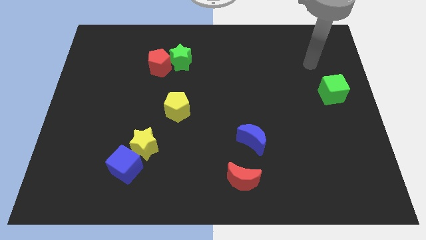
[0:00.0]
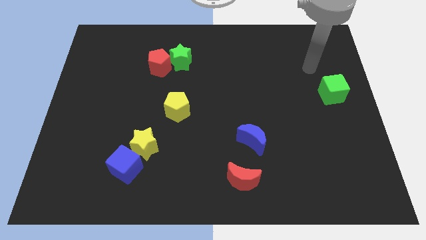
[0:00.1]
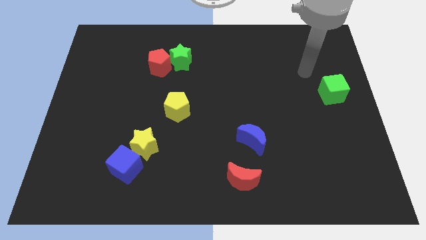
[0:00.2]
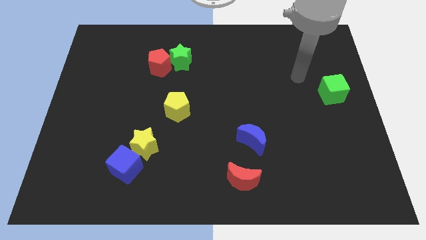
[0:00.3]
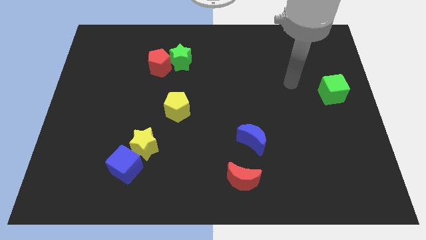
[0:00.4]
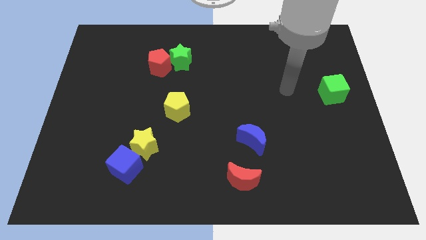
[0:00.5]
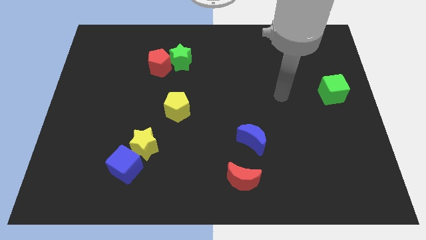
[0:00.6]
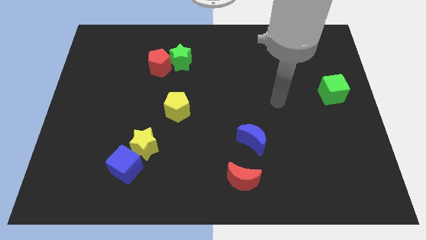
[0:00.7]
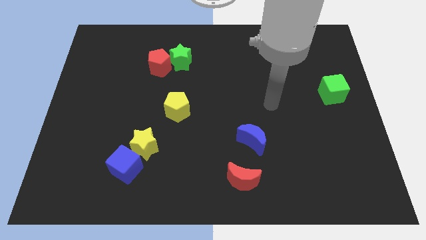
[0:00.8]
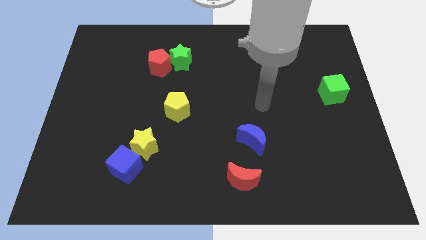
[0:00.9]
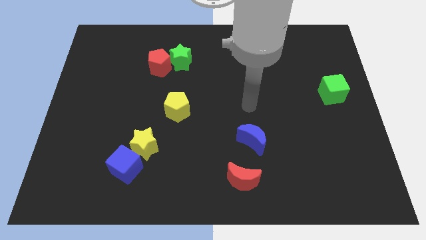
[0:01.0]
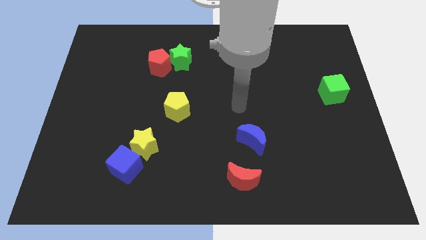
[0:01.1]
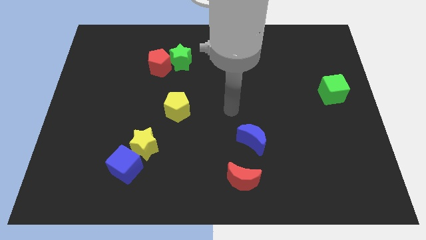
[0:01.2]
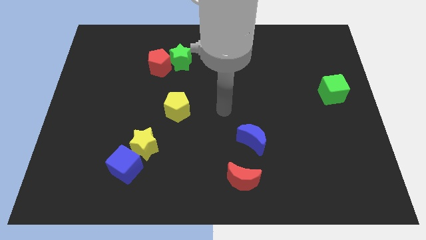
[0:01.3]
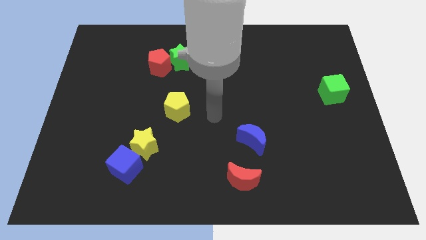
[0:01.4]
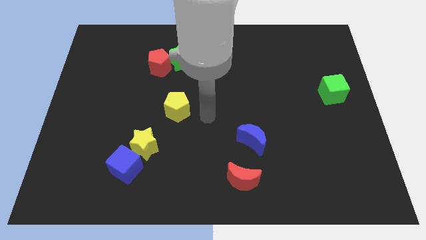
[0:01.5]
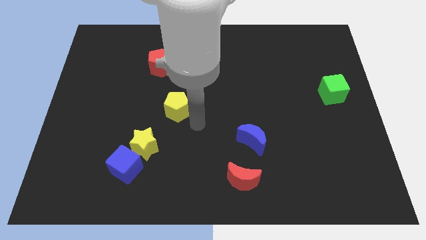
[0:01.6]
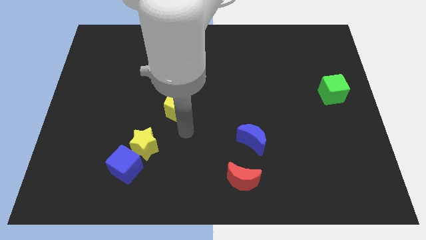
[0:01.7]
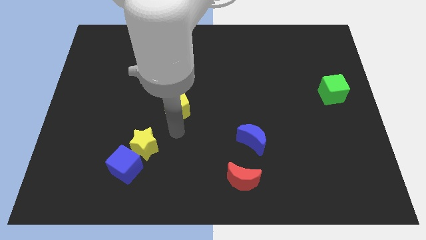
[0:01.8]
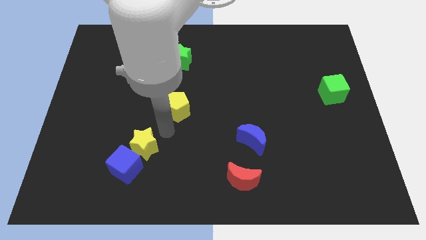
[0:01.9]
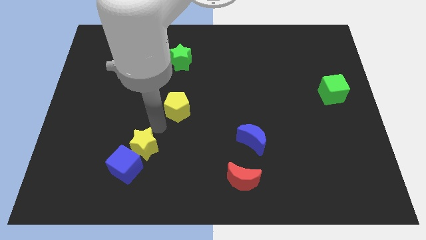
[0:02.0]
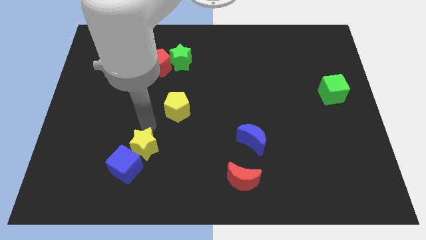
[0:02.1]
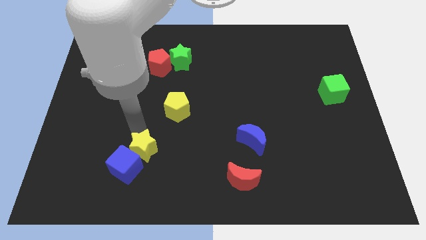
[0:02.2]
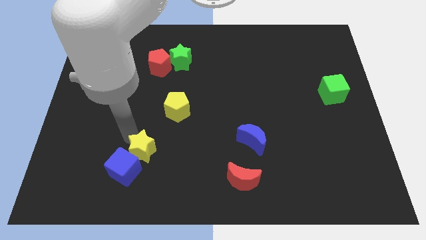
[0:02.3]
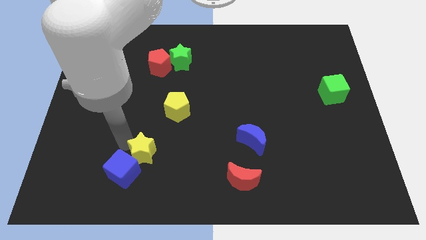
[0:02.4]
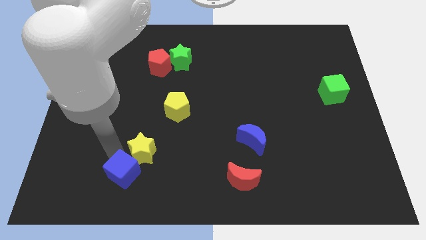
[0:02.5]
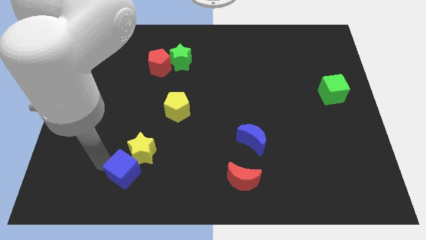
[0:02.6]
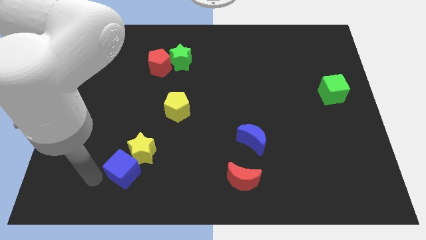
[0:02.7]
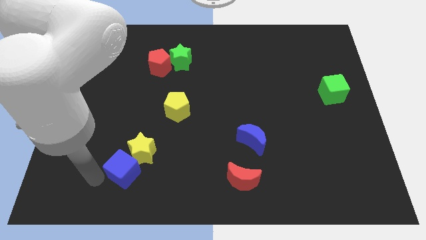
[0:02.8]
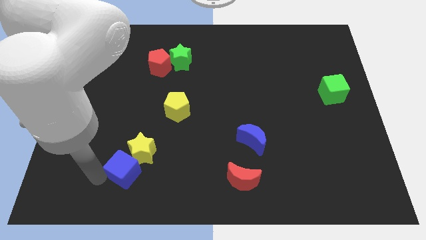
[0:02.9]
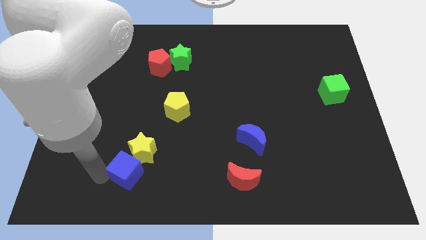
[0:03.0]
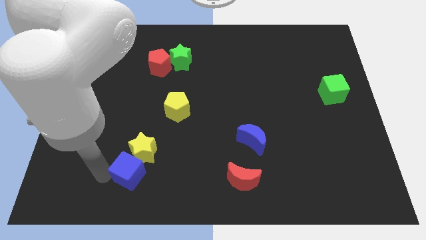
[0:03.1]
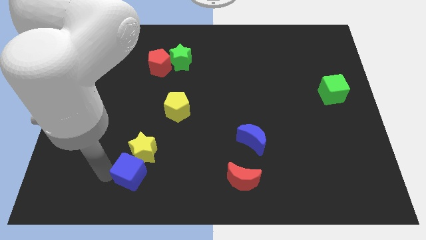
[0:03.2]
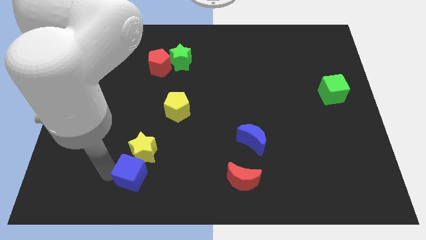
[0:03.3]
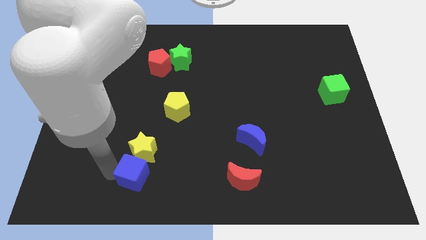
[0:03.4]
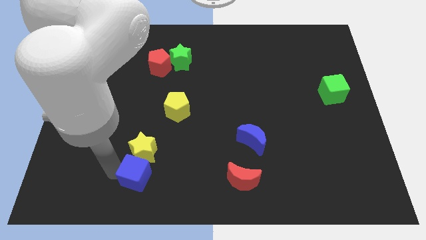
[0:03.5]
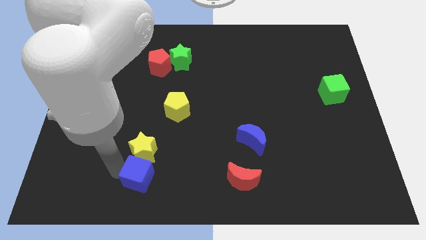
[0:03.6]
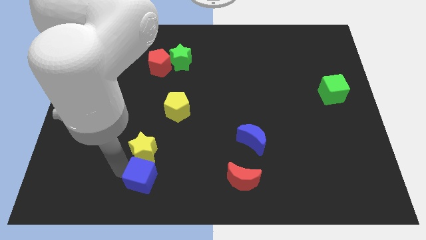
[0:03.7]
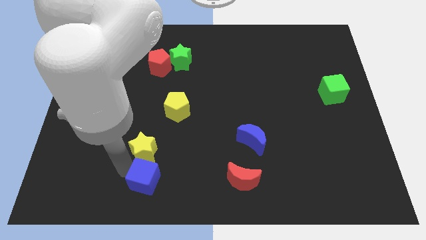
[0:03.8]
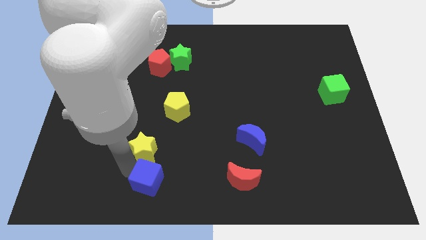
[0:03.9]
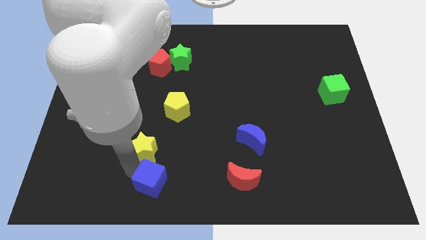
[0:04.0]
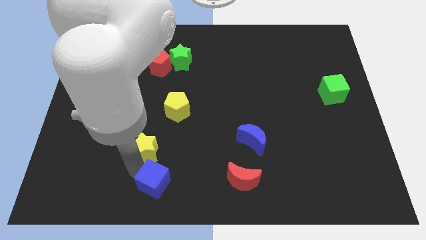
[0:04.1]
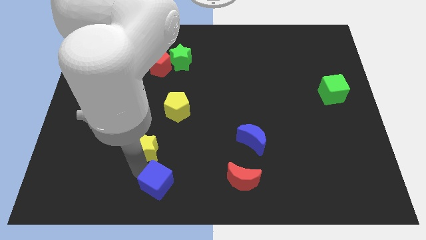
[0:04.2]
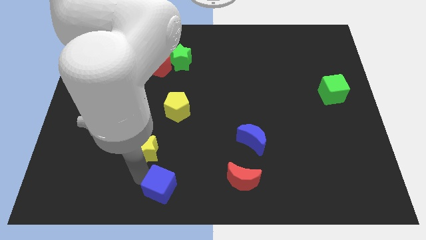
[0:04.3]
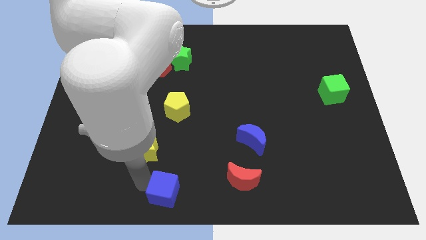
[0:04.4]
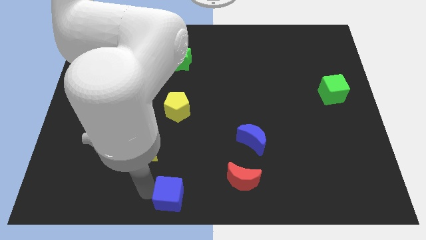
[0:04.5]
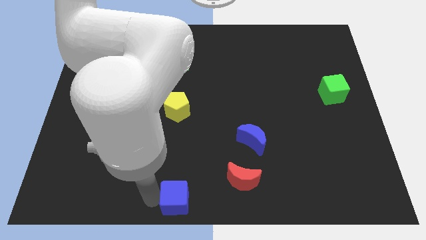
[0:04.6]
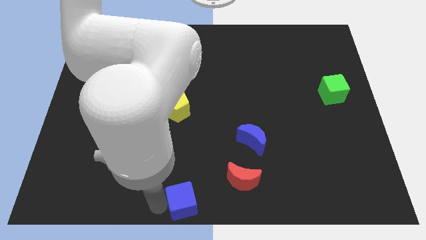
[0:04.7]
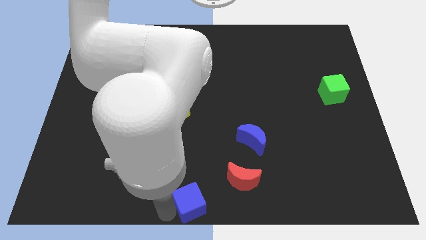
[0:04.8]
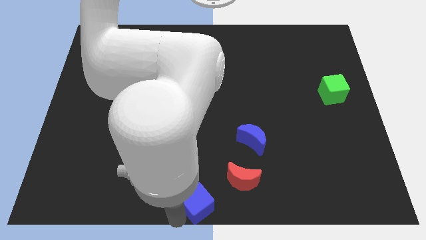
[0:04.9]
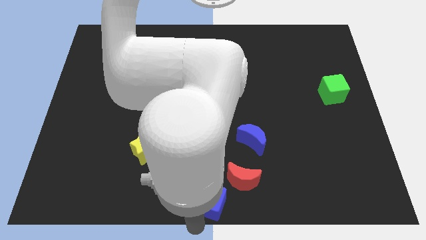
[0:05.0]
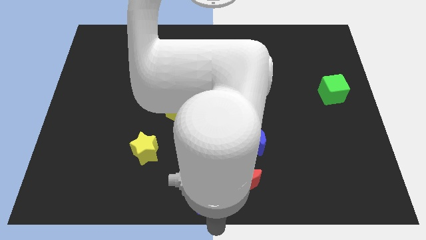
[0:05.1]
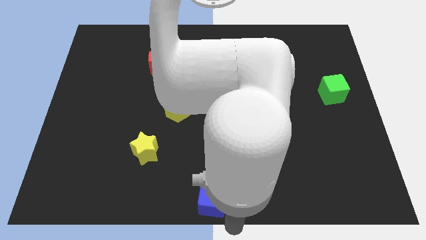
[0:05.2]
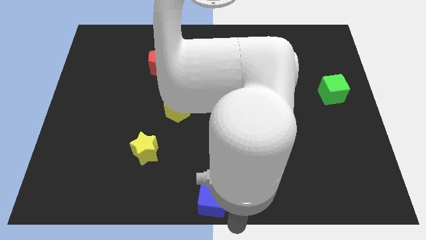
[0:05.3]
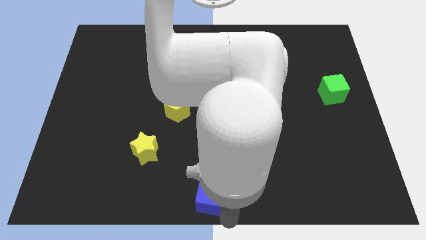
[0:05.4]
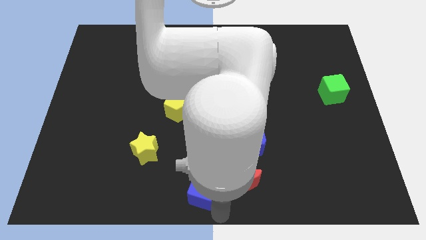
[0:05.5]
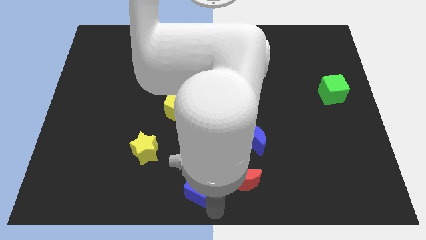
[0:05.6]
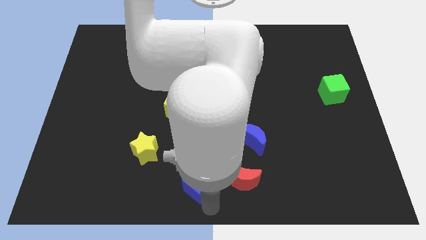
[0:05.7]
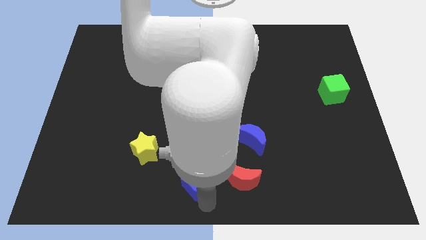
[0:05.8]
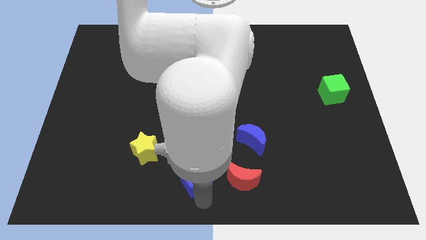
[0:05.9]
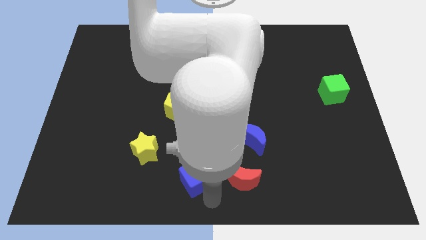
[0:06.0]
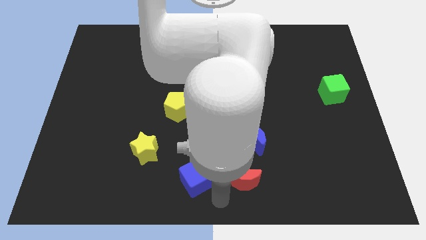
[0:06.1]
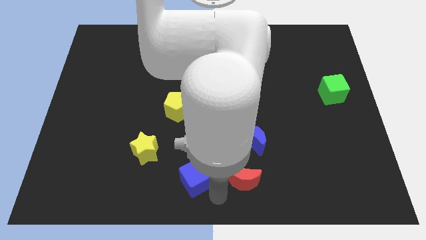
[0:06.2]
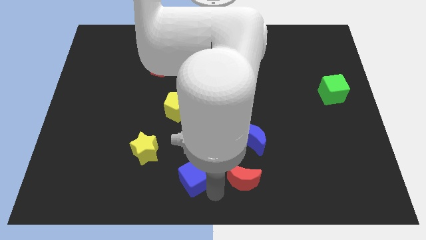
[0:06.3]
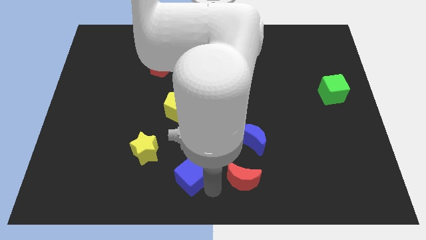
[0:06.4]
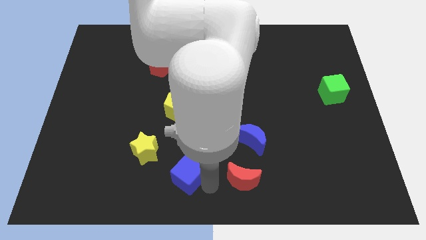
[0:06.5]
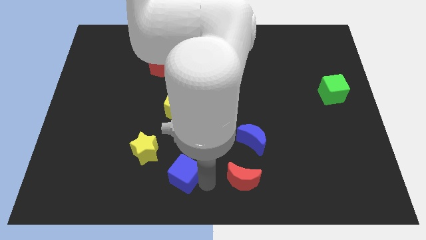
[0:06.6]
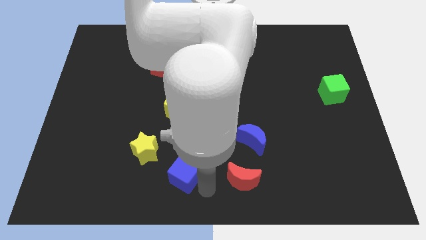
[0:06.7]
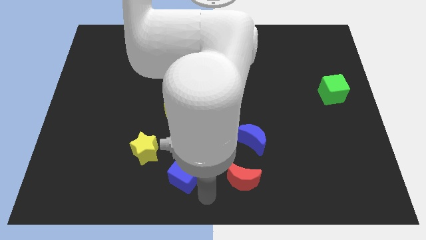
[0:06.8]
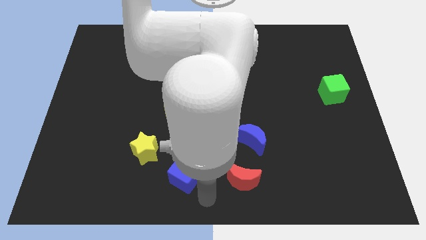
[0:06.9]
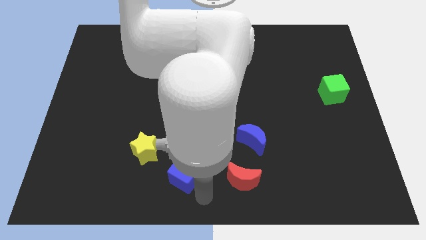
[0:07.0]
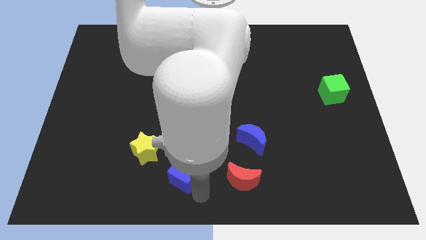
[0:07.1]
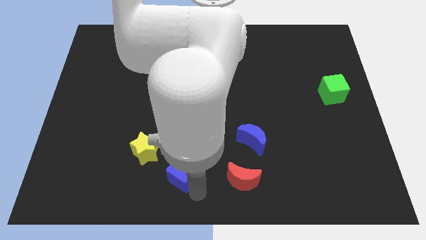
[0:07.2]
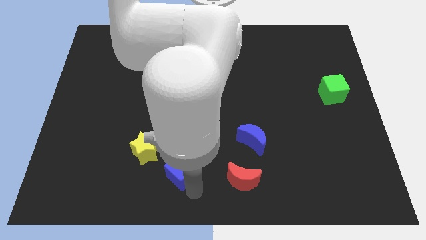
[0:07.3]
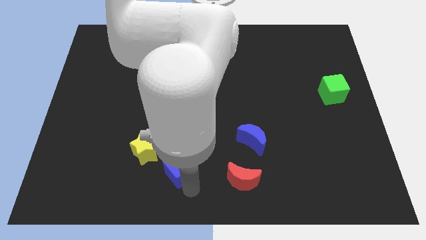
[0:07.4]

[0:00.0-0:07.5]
slide the blue cube to the right side of the yellow star
